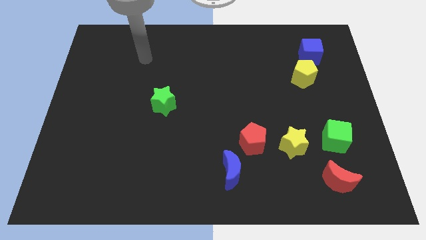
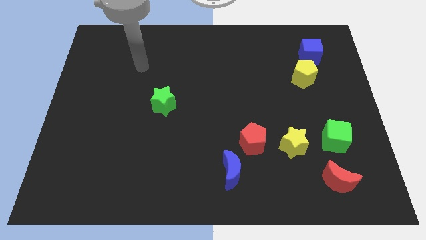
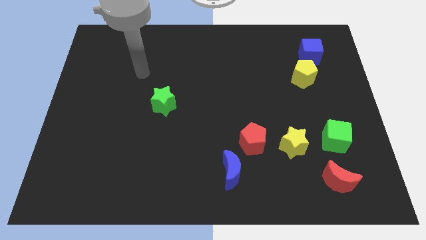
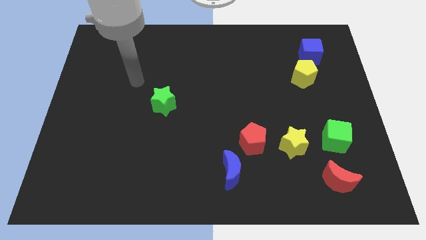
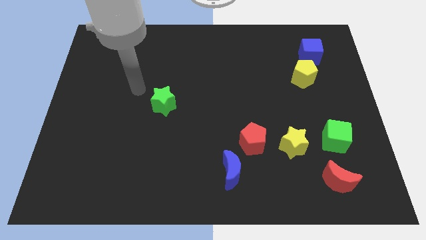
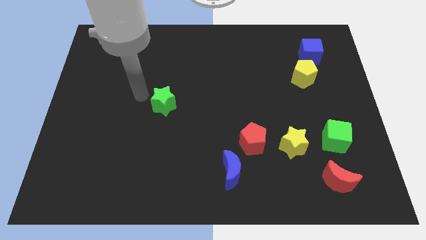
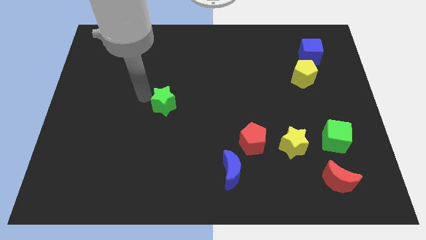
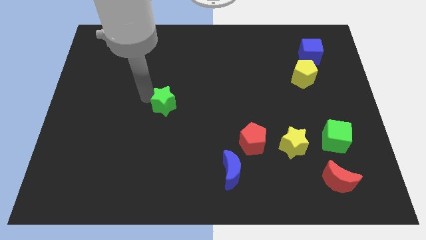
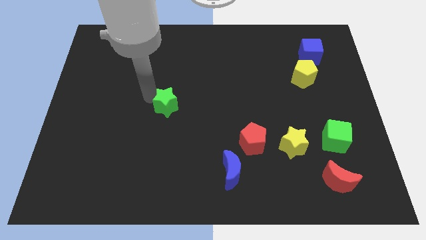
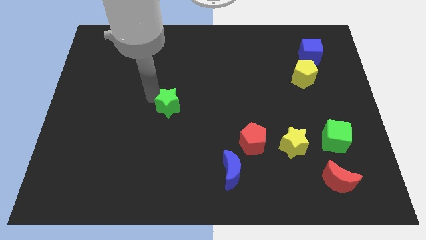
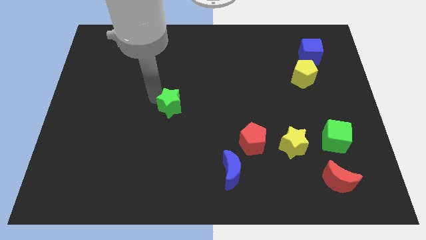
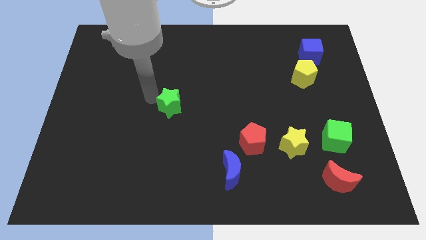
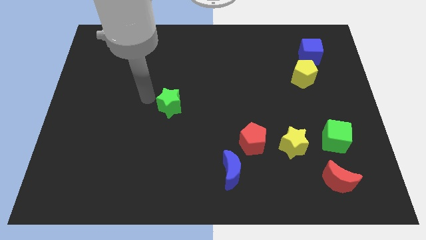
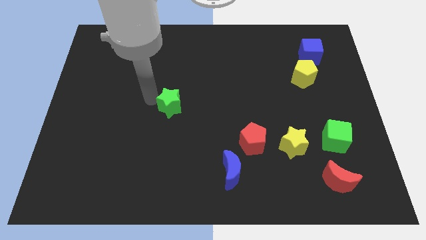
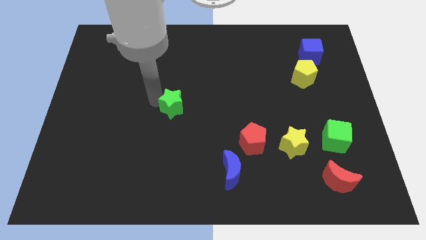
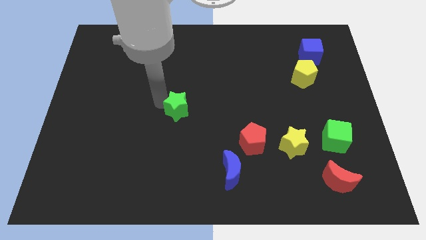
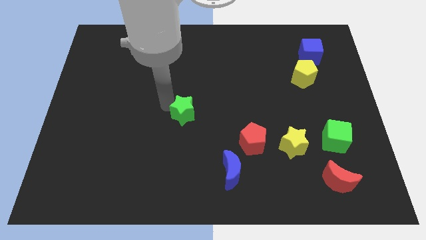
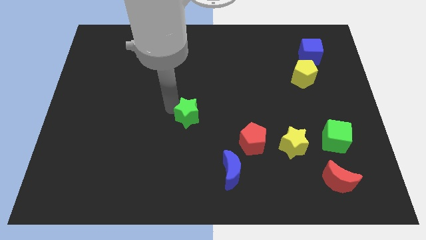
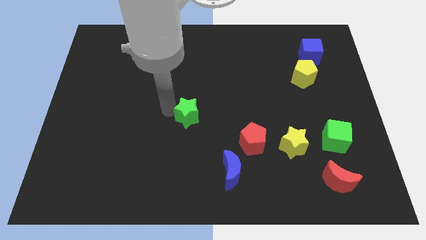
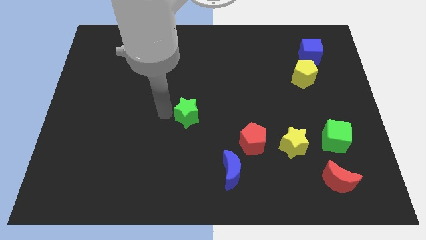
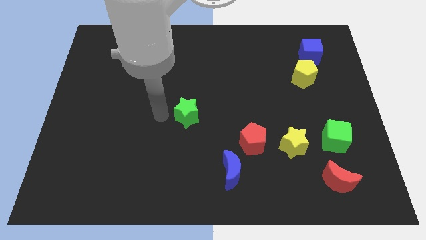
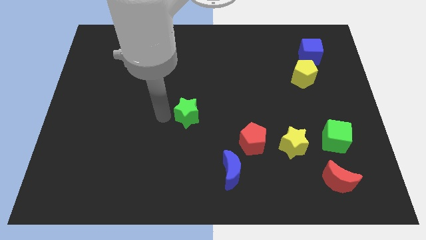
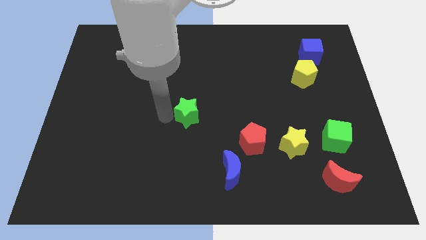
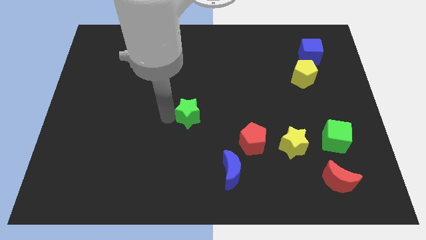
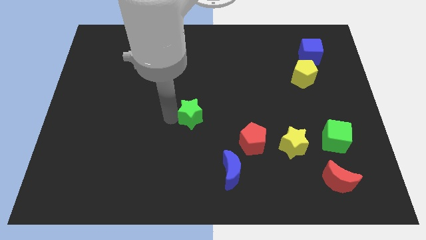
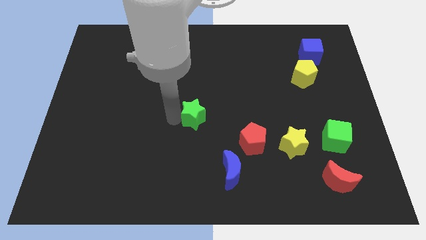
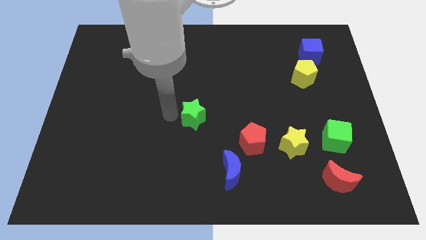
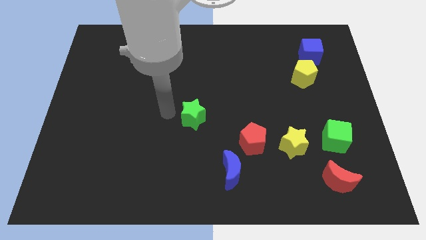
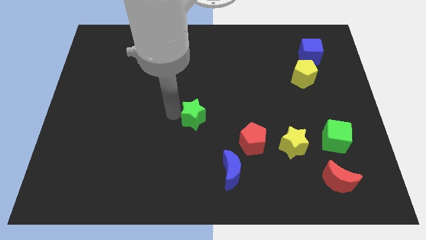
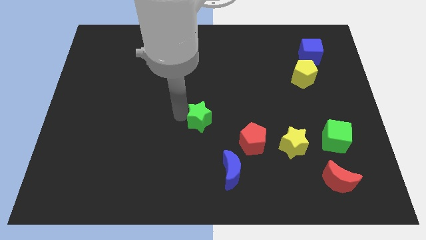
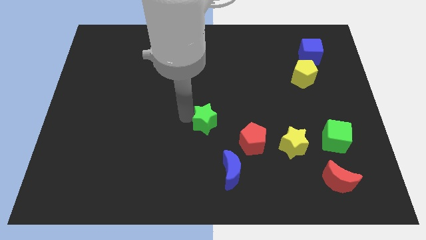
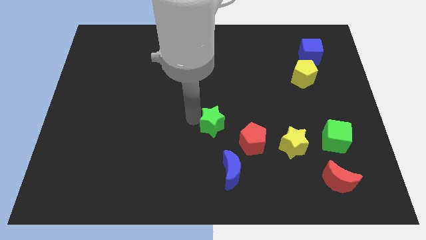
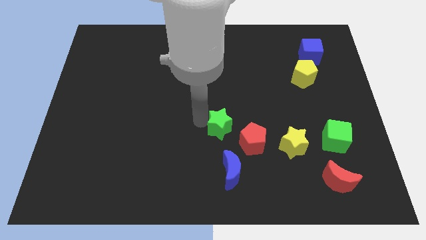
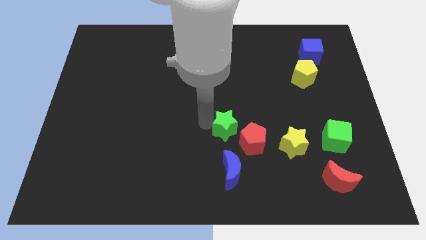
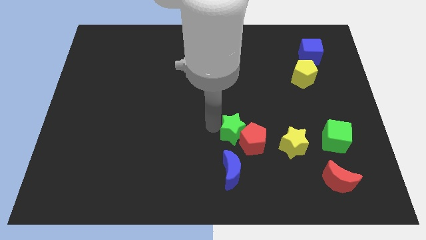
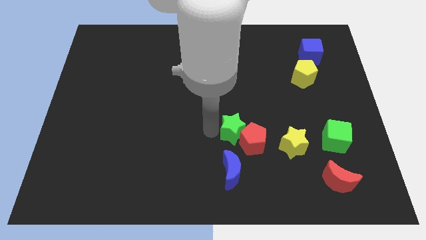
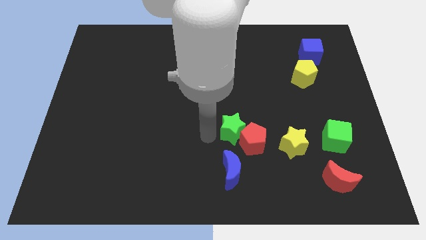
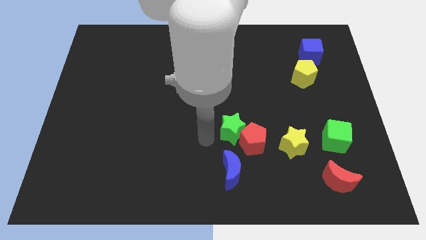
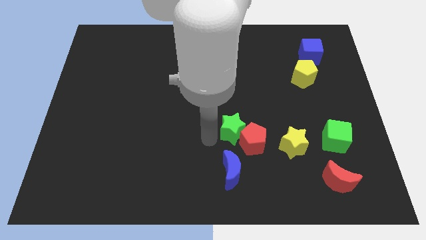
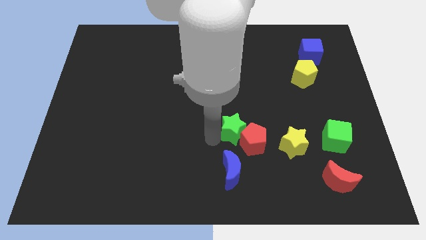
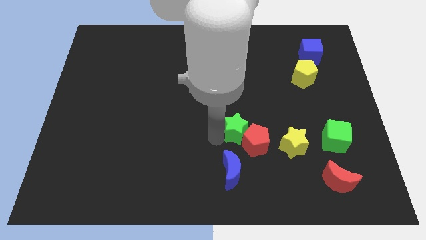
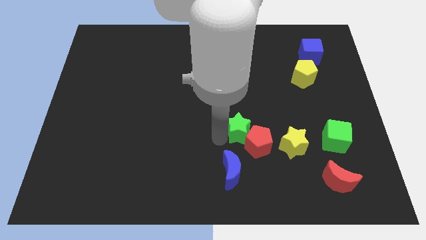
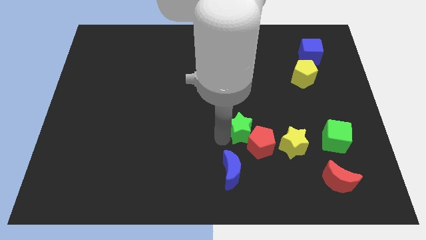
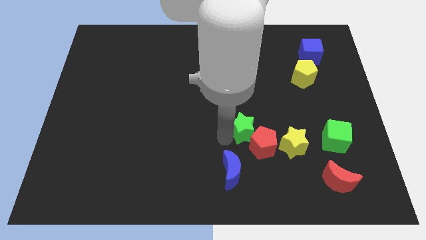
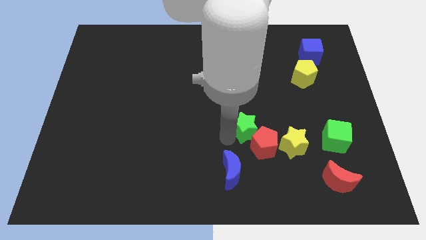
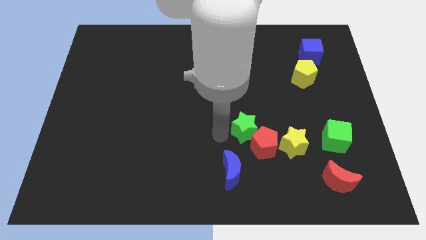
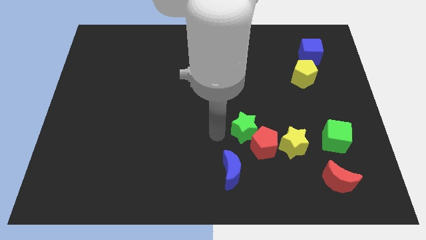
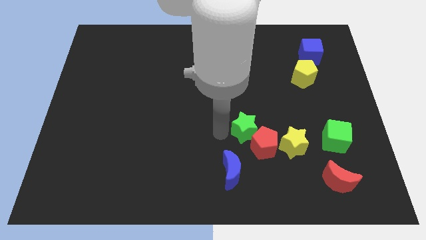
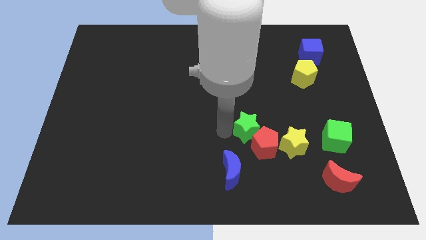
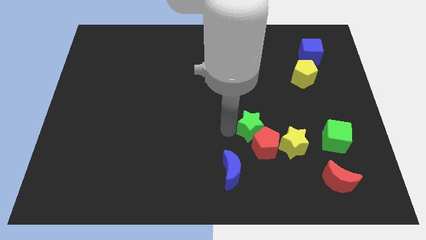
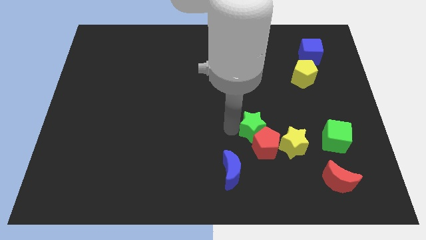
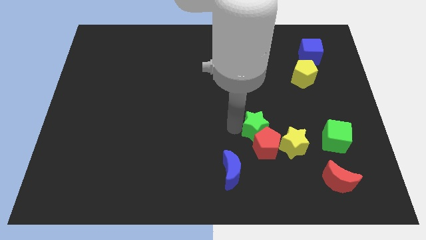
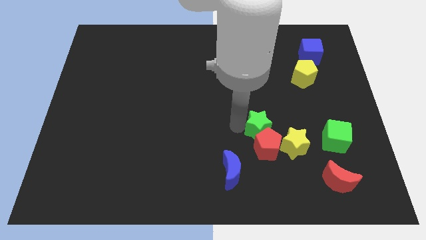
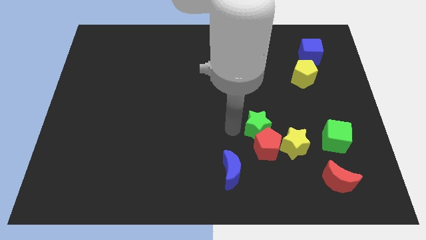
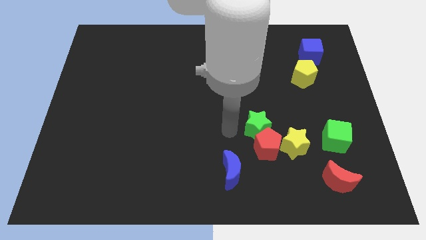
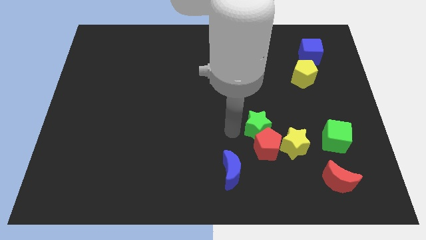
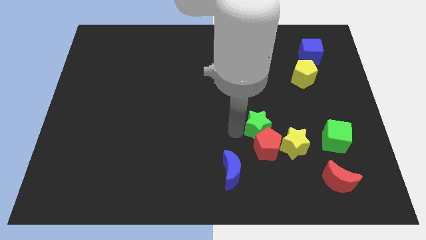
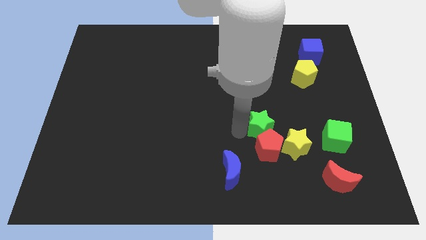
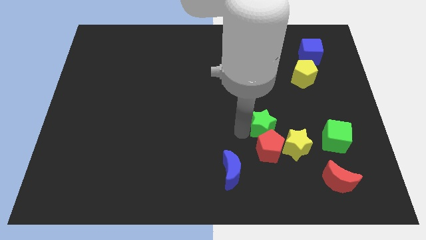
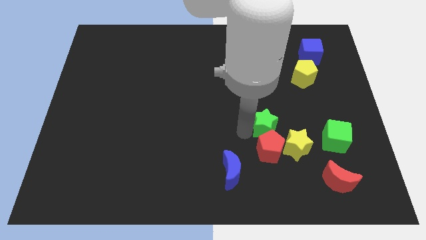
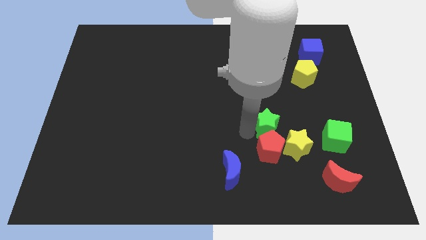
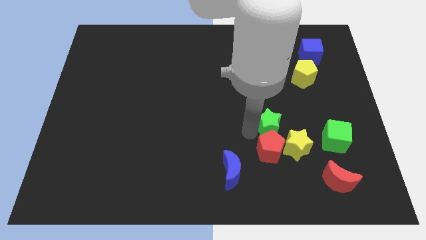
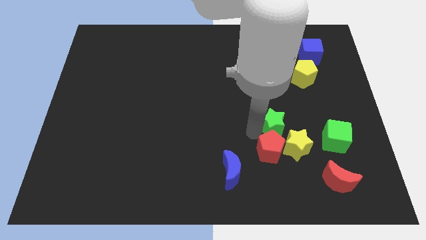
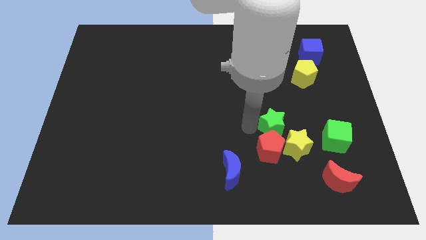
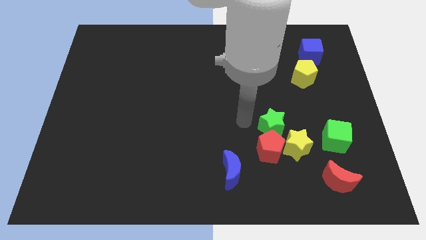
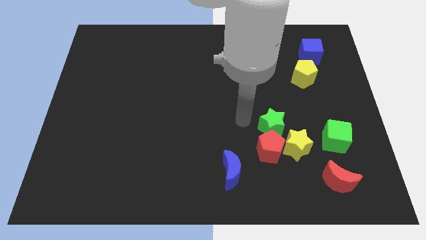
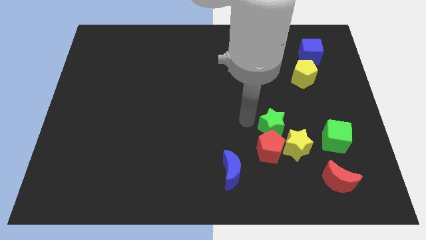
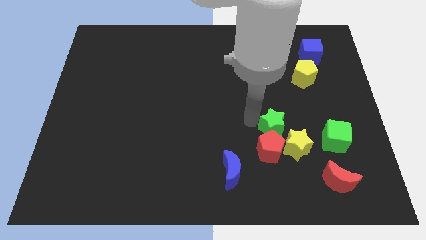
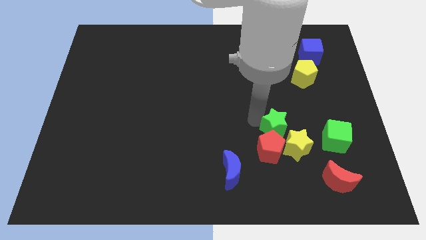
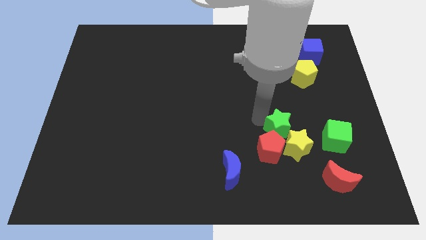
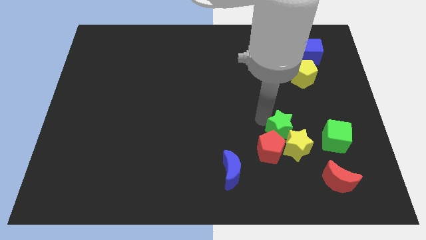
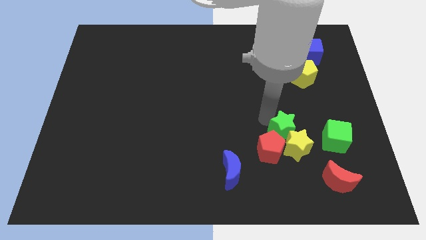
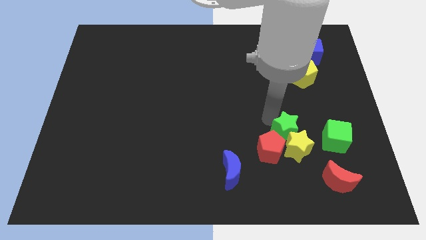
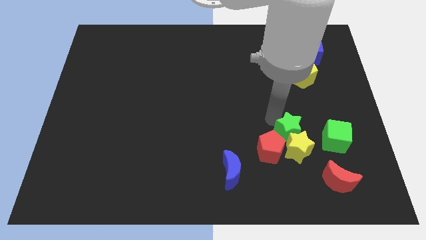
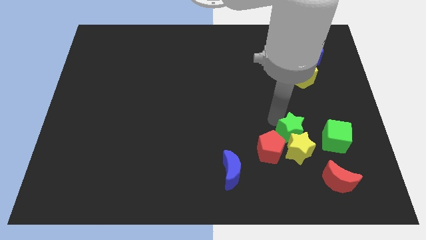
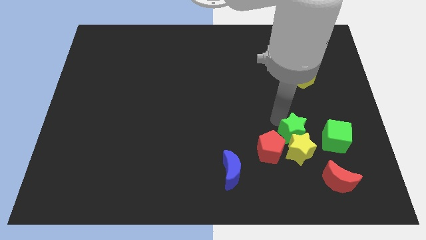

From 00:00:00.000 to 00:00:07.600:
push the green star right of the red pentagon
